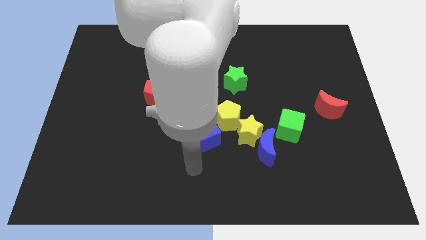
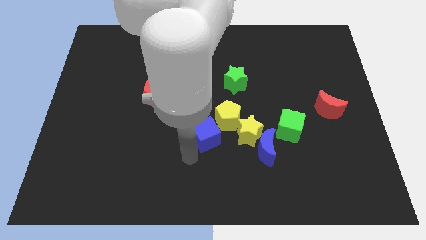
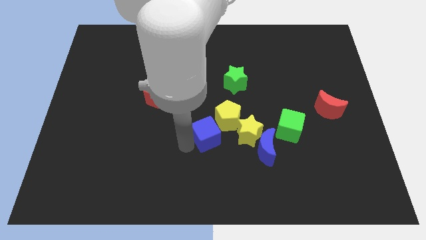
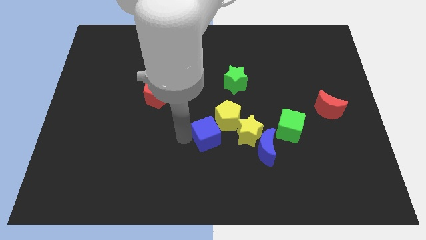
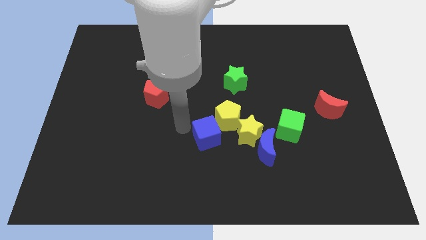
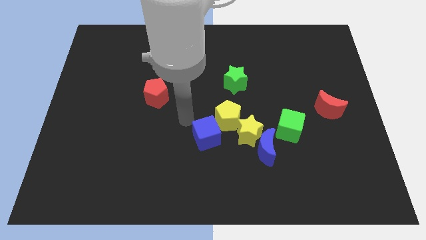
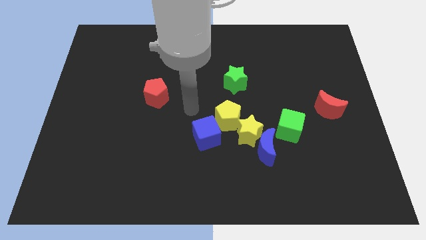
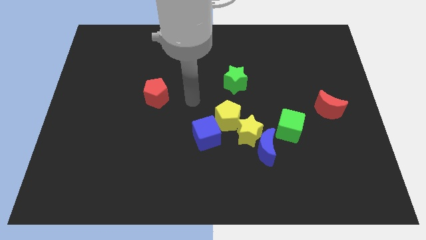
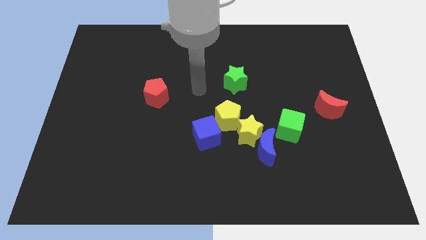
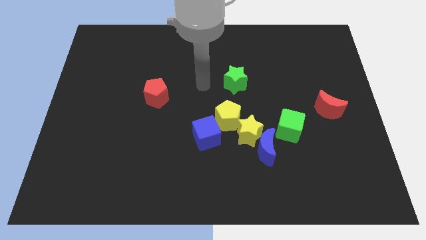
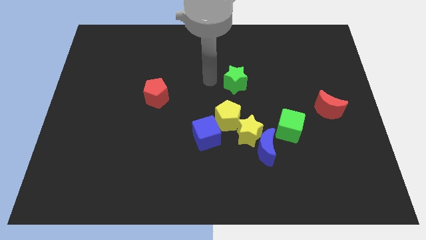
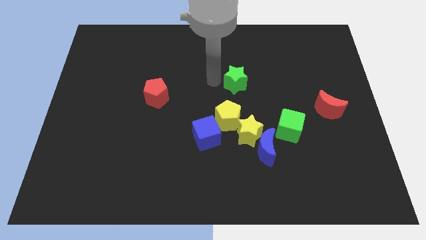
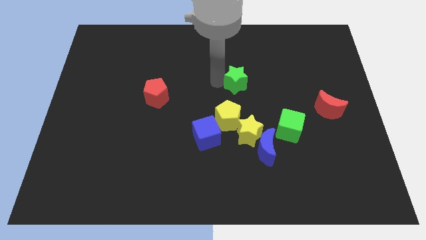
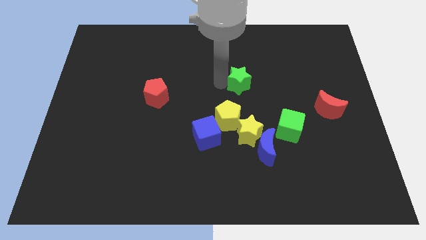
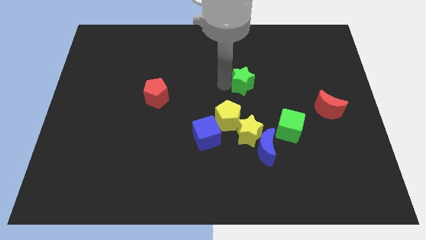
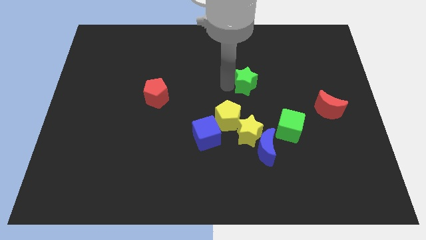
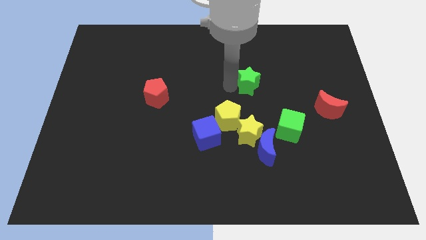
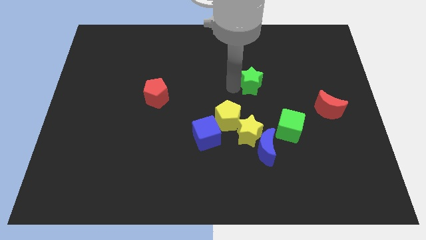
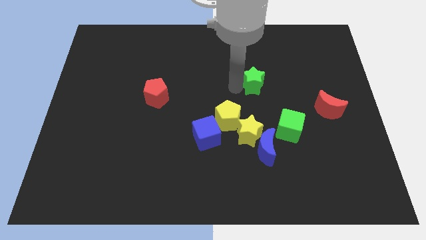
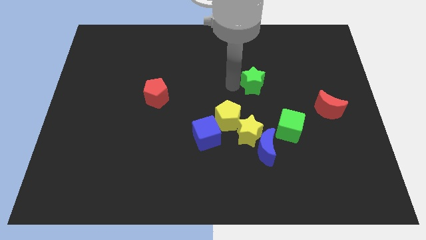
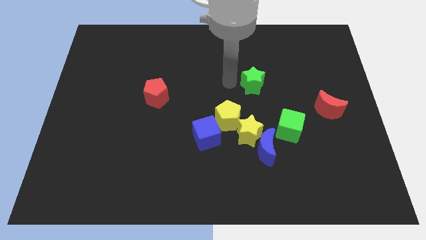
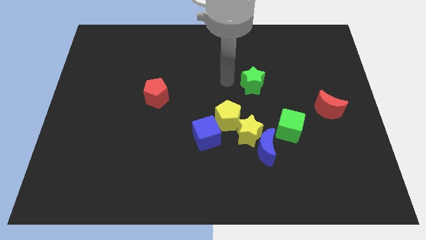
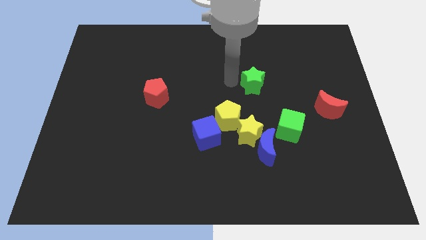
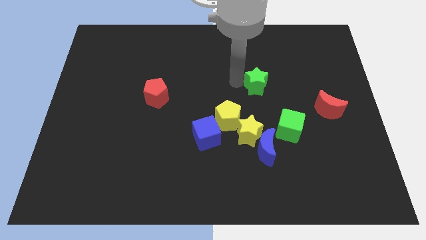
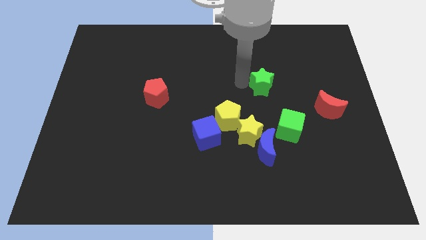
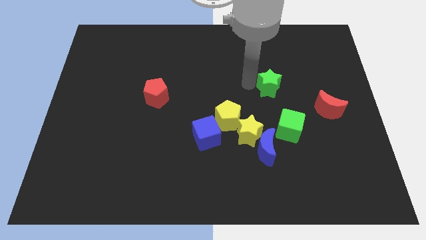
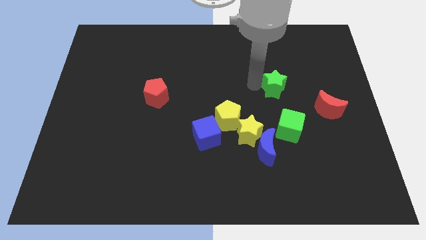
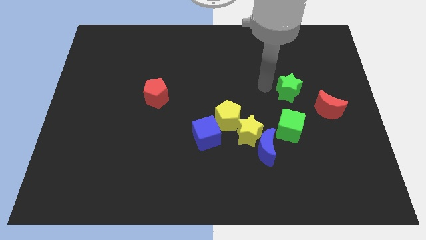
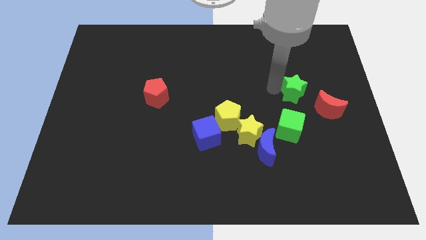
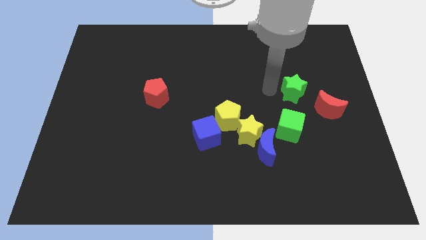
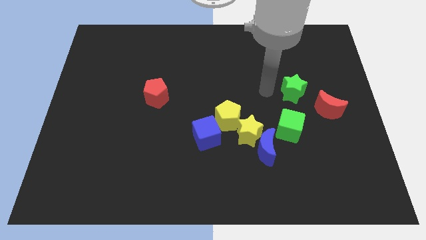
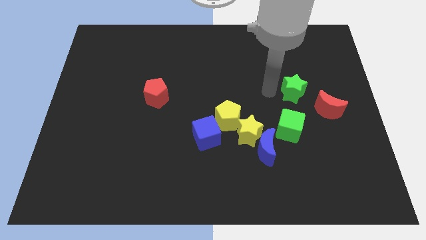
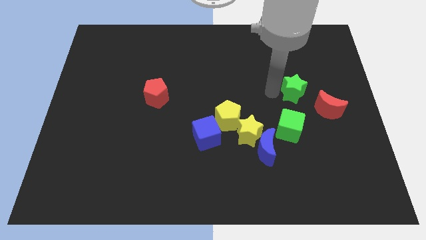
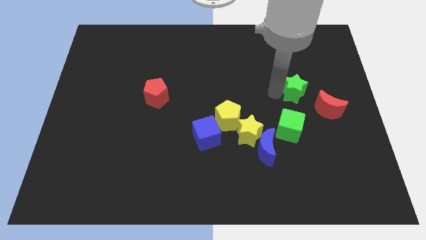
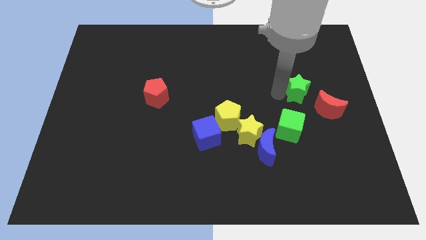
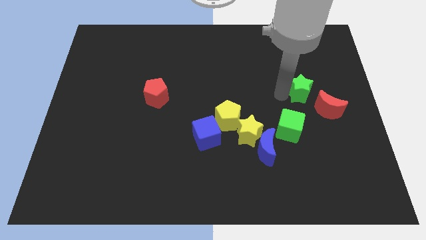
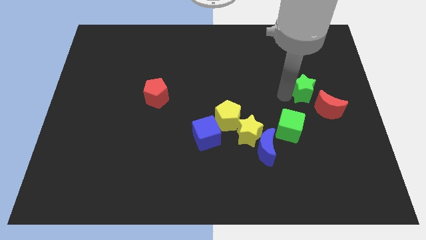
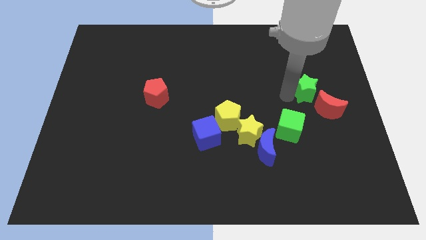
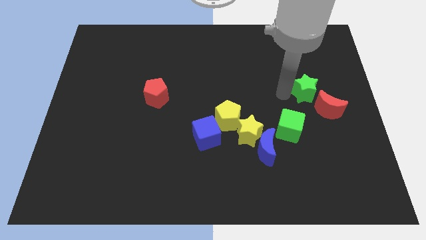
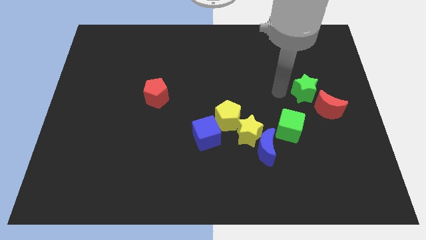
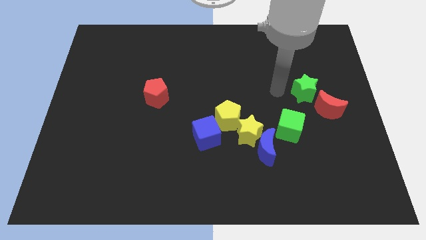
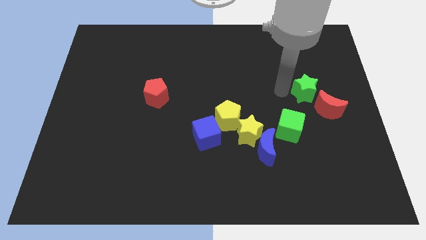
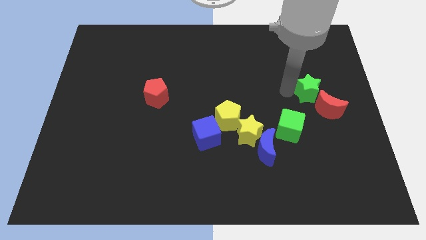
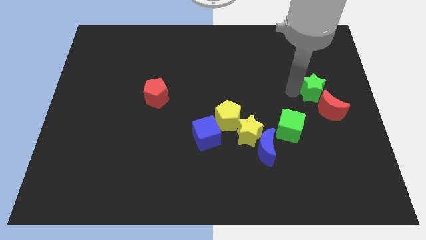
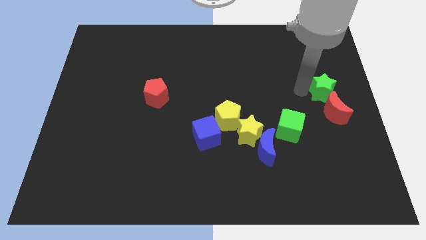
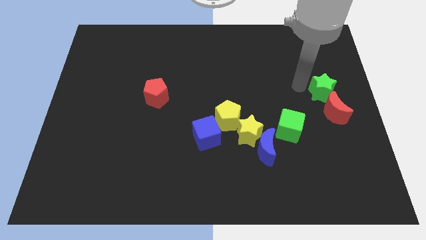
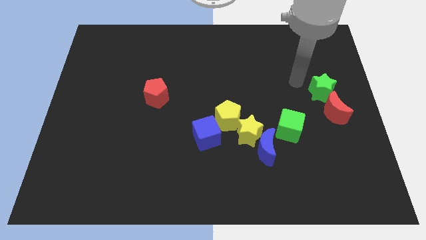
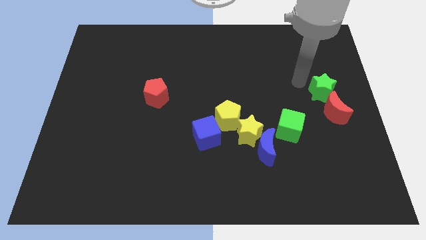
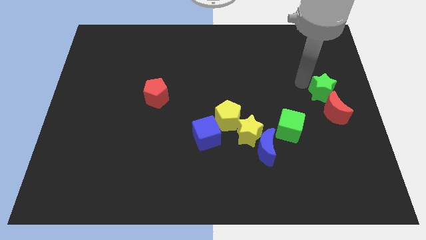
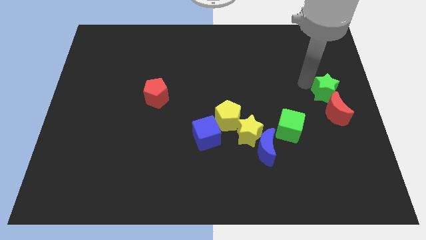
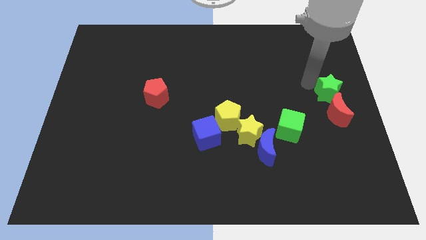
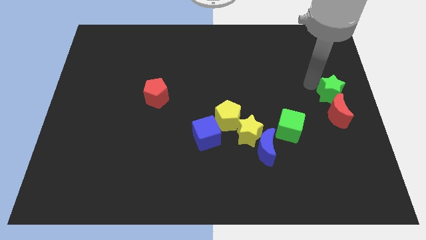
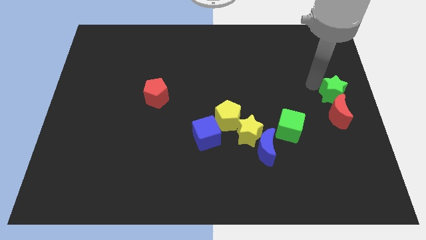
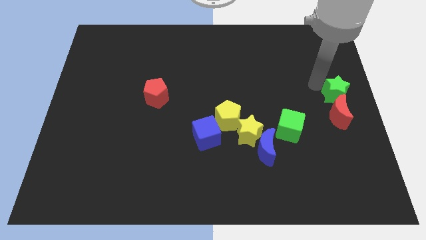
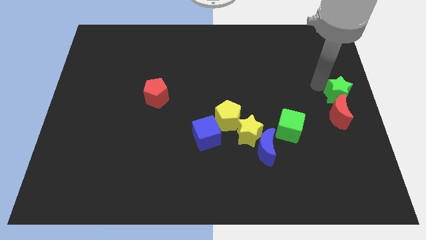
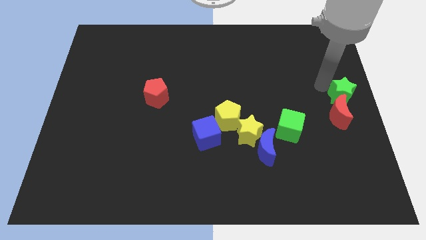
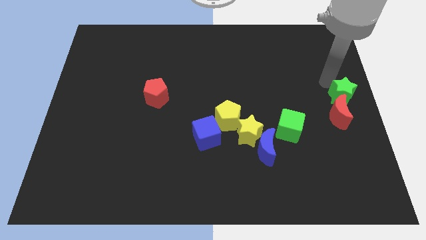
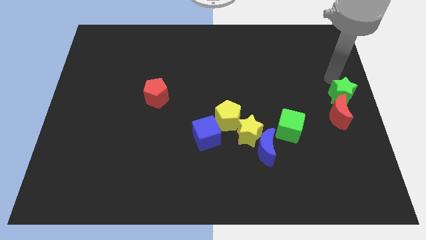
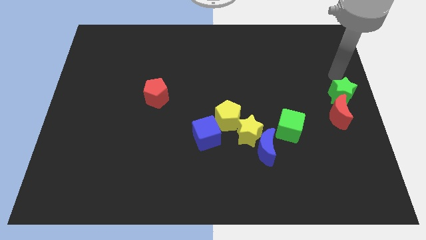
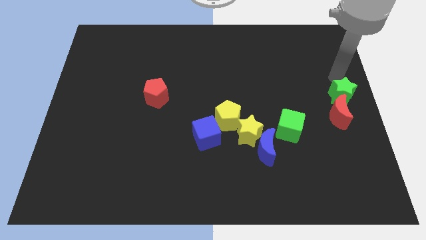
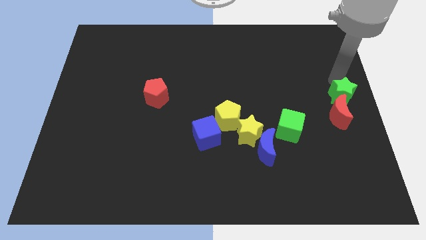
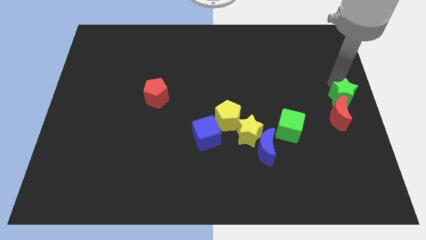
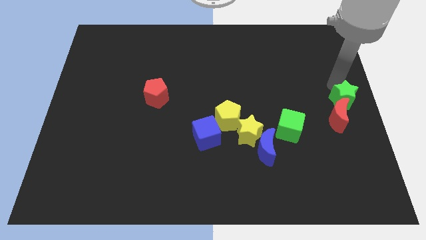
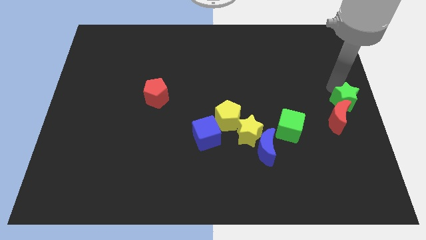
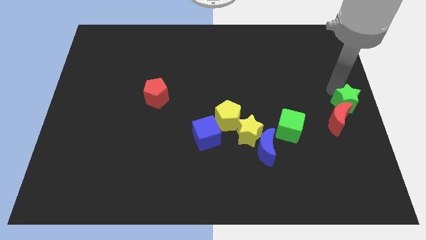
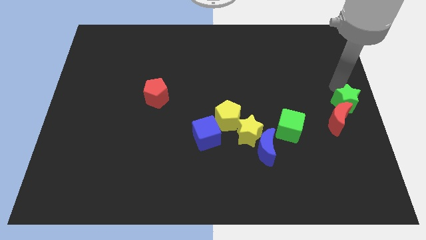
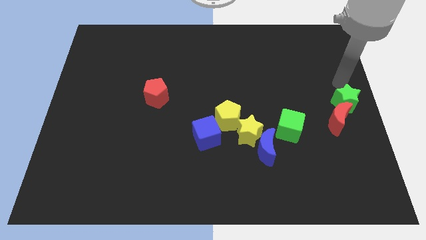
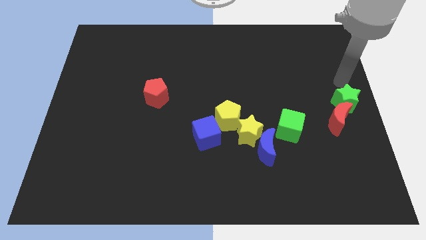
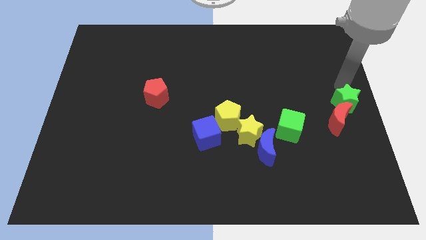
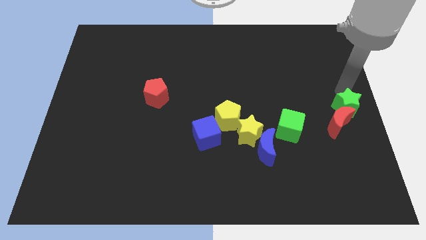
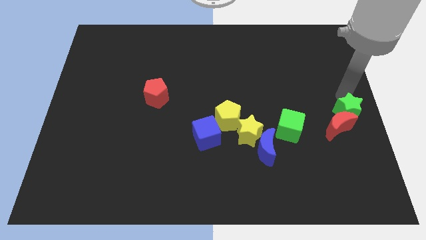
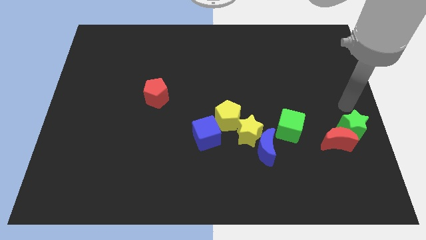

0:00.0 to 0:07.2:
slide the green star downwards and then to the right

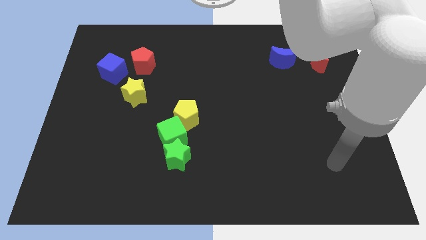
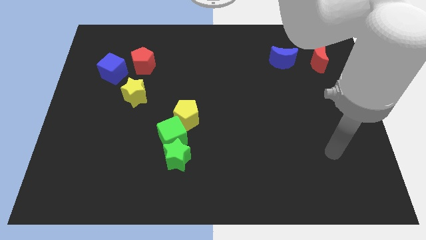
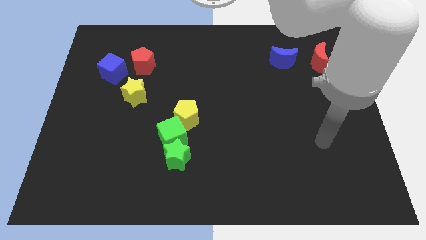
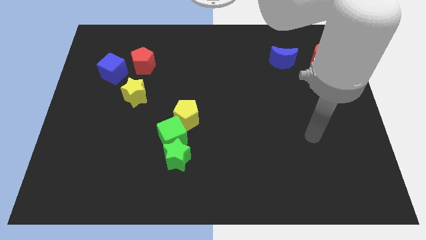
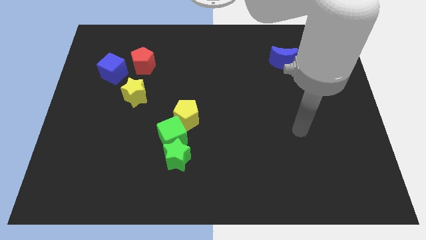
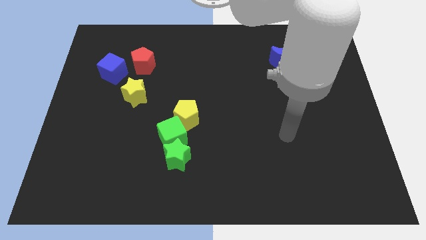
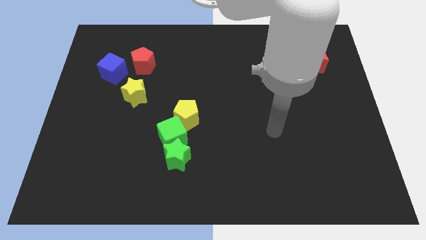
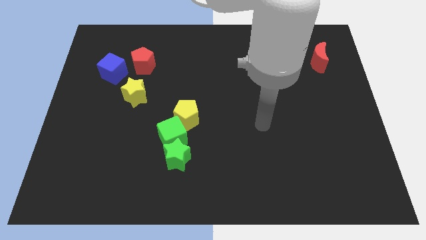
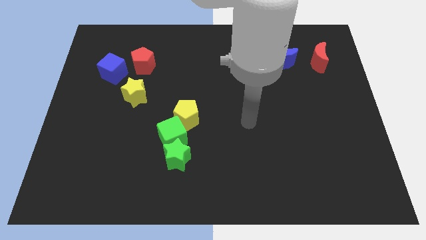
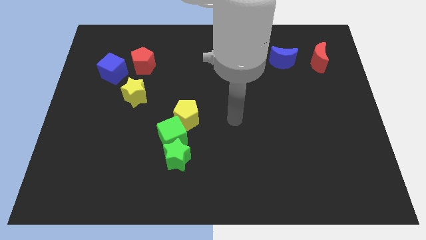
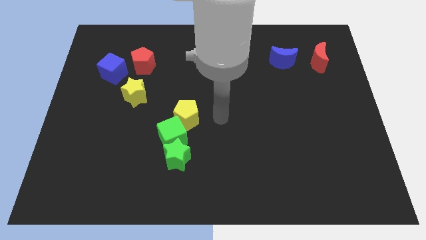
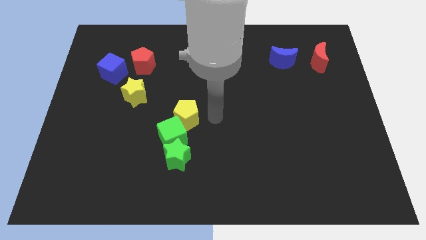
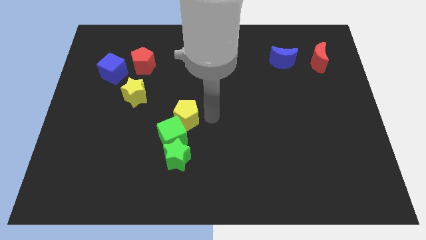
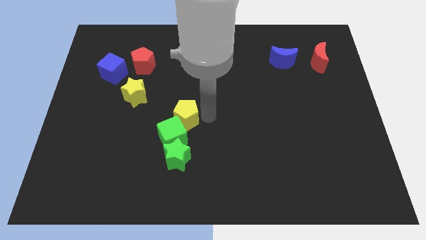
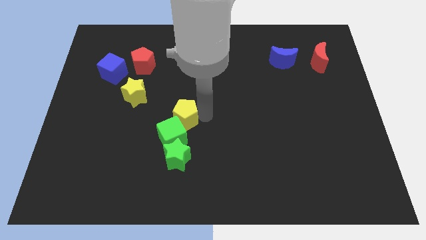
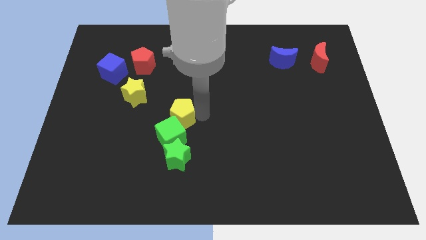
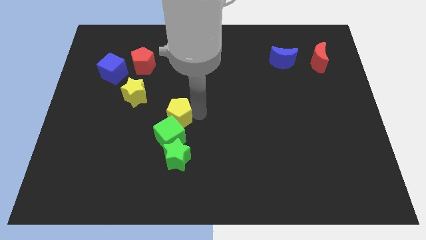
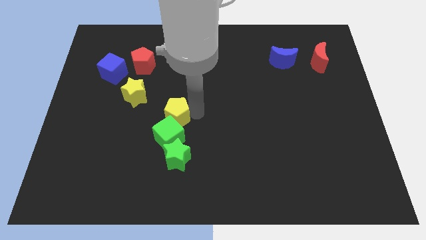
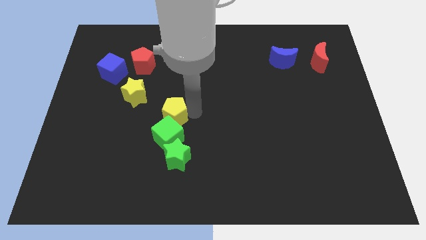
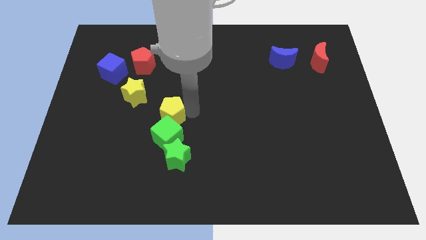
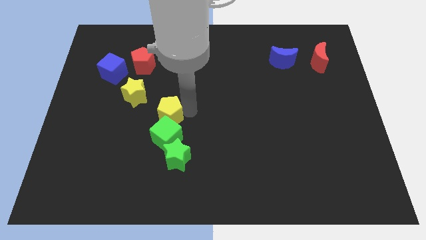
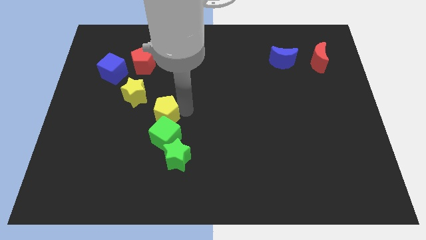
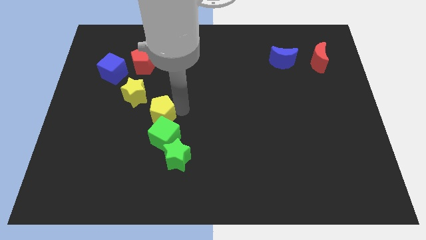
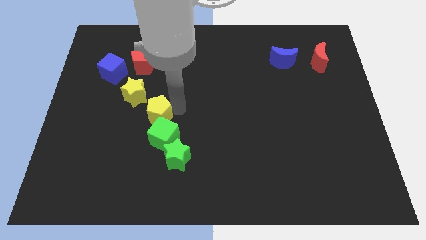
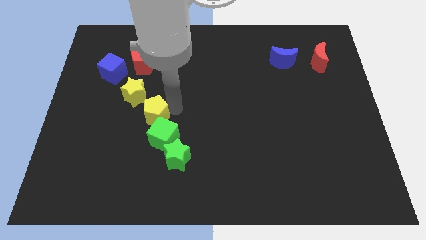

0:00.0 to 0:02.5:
push the yellow pentagon slightly left
